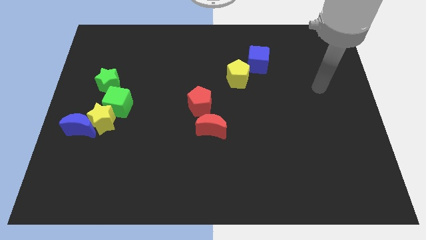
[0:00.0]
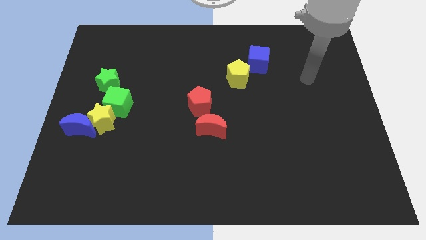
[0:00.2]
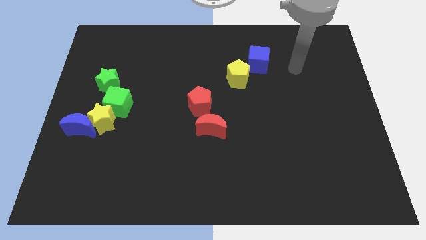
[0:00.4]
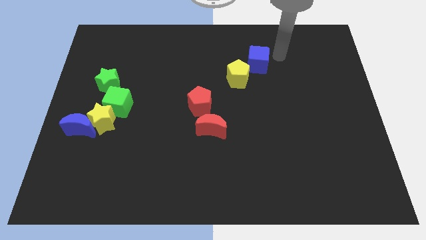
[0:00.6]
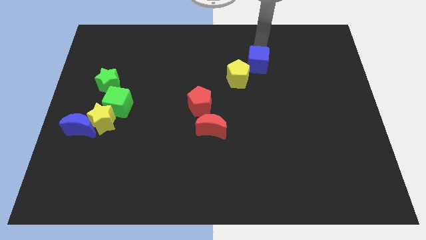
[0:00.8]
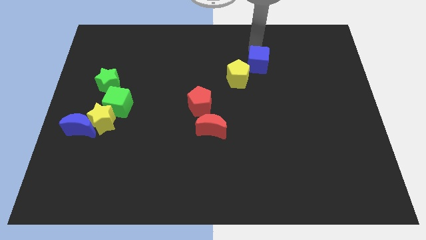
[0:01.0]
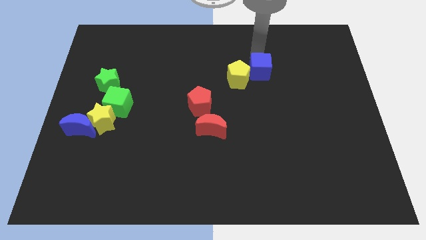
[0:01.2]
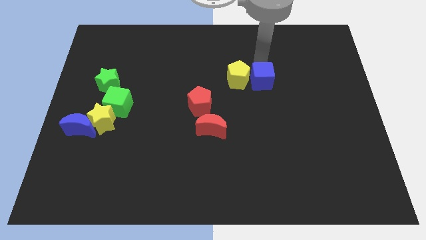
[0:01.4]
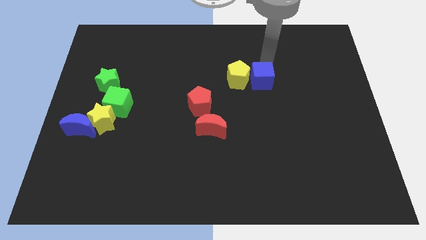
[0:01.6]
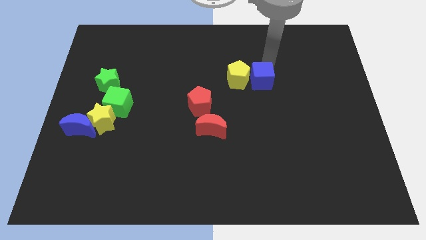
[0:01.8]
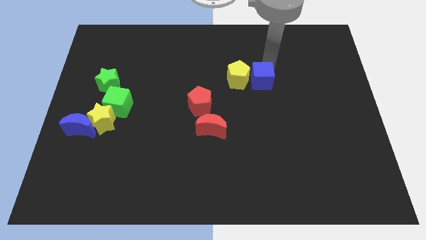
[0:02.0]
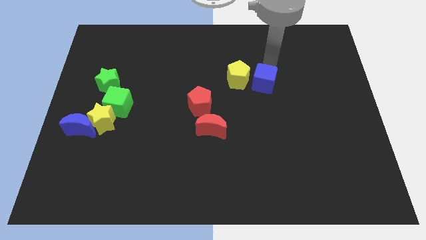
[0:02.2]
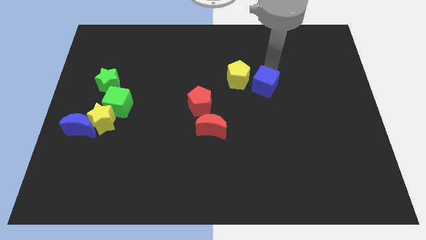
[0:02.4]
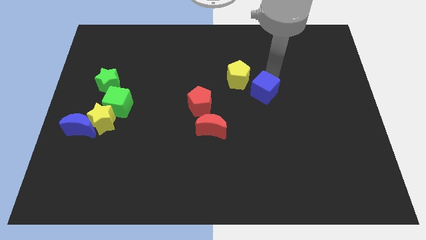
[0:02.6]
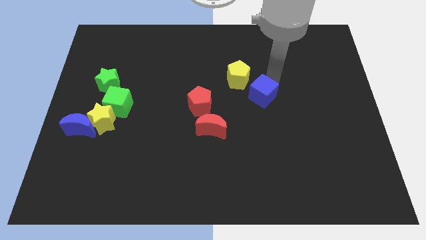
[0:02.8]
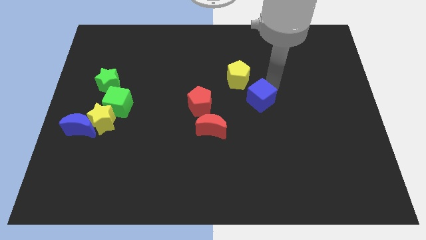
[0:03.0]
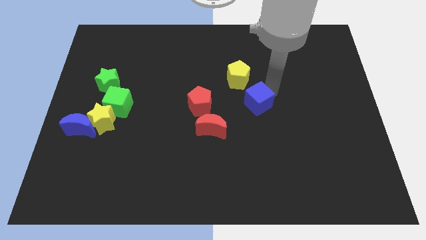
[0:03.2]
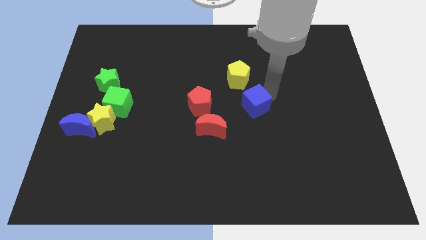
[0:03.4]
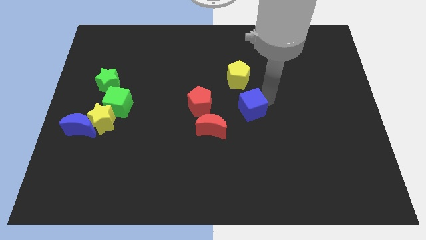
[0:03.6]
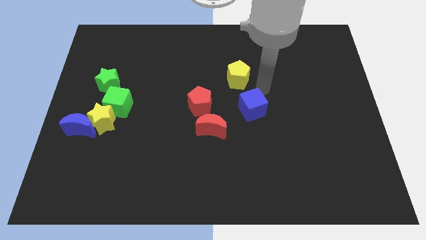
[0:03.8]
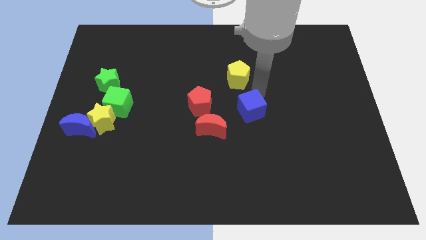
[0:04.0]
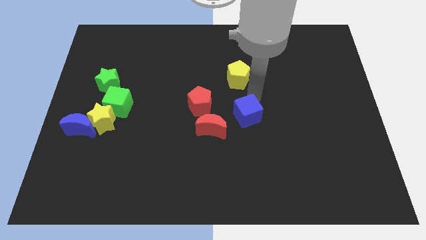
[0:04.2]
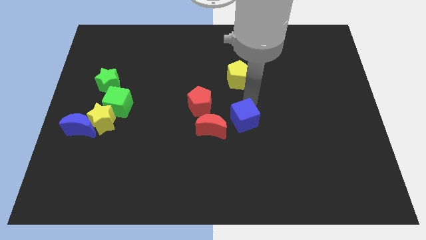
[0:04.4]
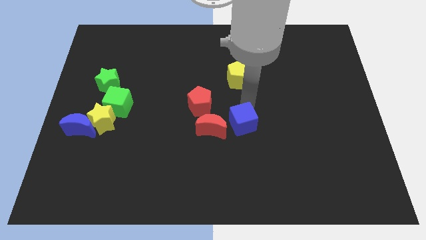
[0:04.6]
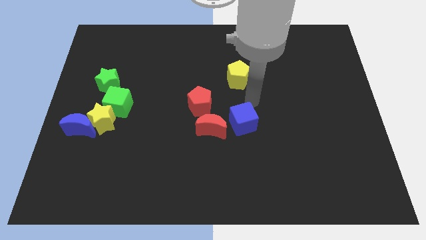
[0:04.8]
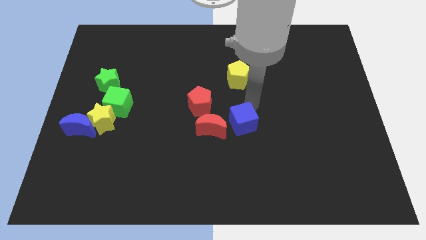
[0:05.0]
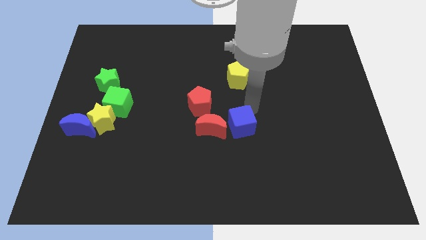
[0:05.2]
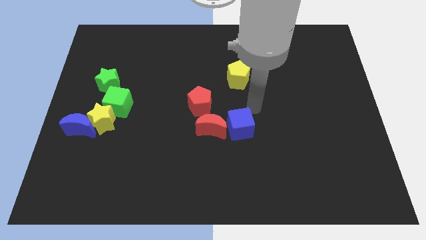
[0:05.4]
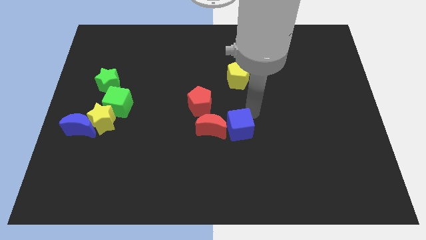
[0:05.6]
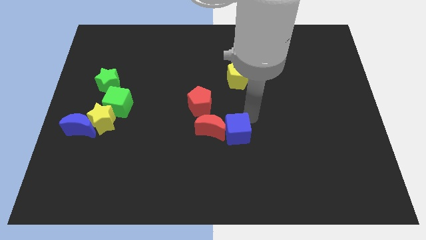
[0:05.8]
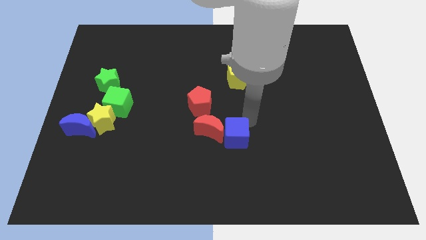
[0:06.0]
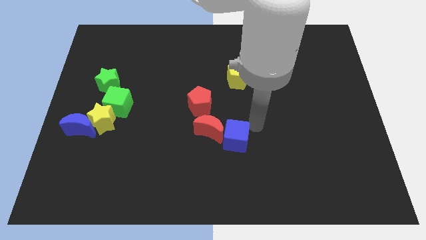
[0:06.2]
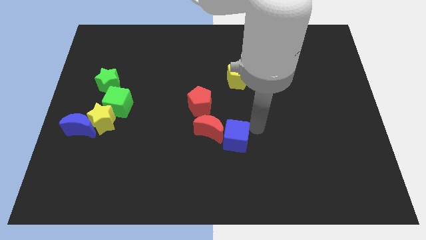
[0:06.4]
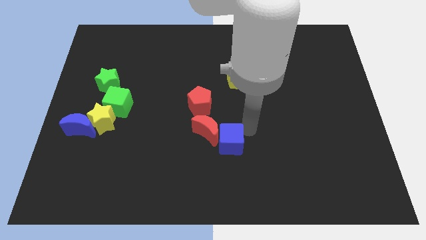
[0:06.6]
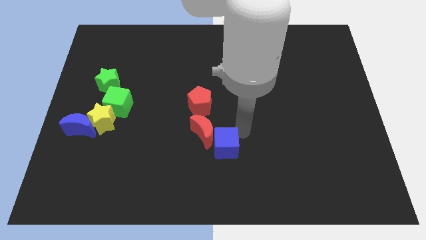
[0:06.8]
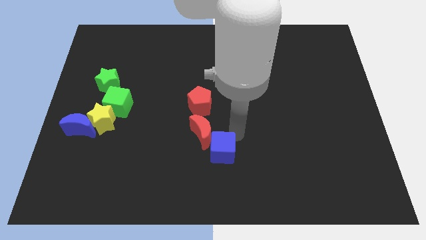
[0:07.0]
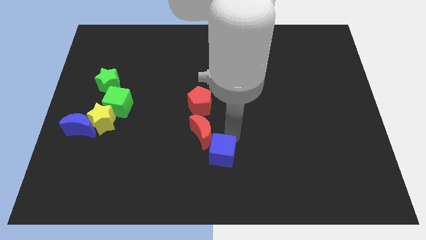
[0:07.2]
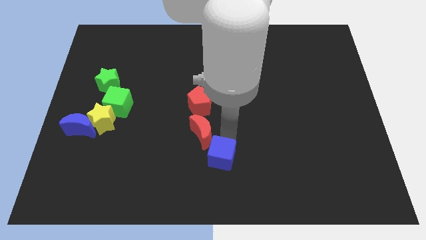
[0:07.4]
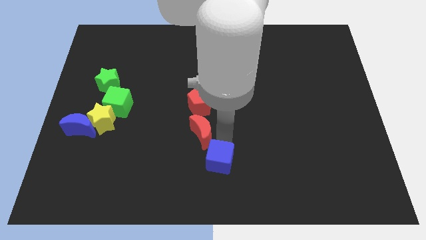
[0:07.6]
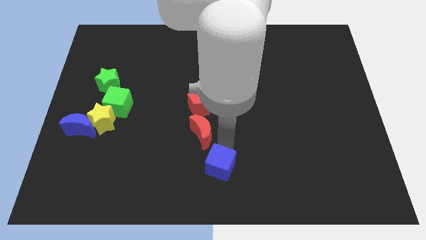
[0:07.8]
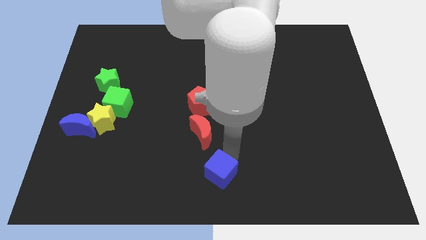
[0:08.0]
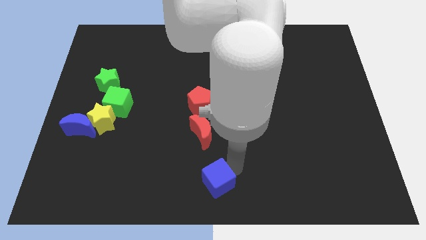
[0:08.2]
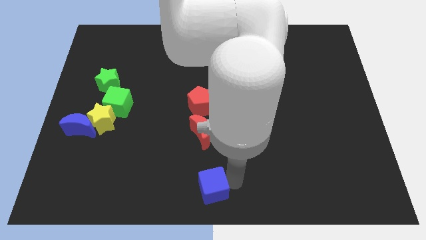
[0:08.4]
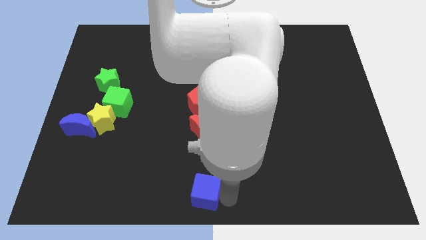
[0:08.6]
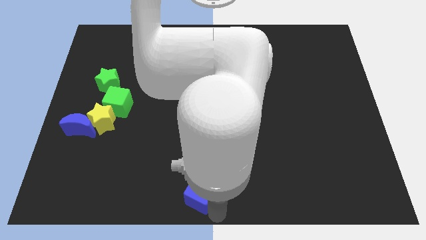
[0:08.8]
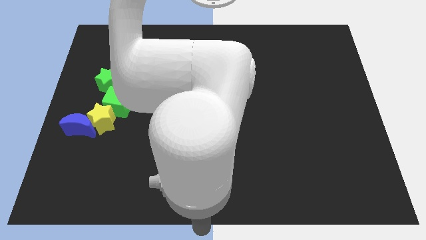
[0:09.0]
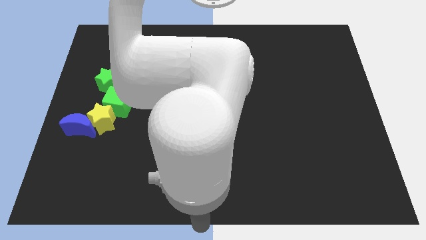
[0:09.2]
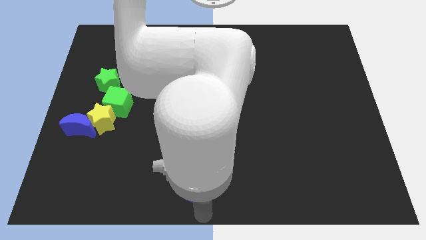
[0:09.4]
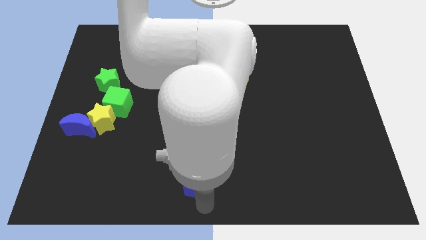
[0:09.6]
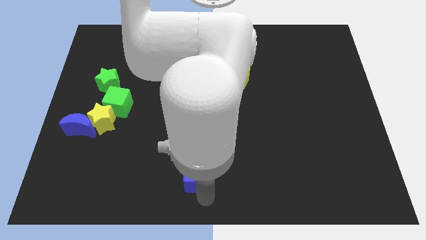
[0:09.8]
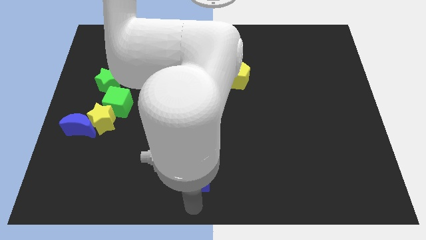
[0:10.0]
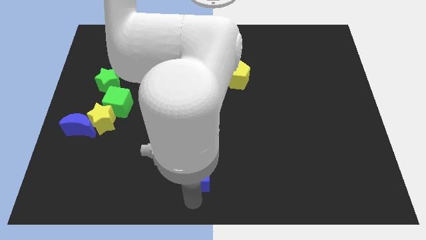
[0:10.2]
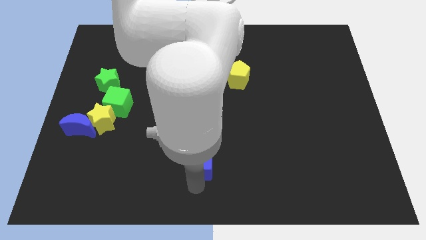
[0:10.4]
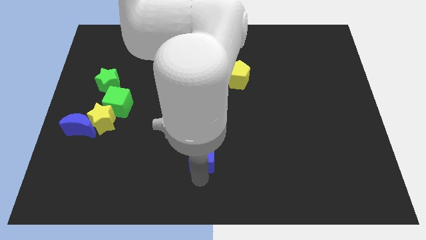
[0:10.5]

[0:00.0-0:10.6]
slide the blue cube to the bottom left side of the red moon

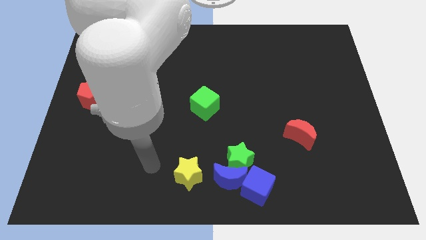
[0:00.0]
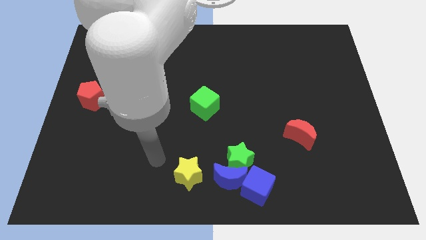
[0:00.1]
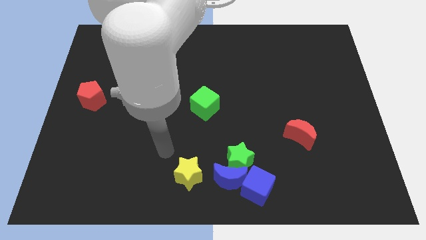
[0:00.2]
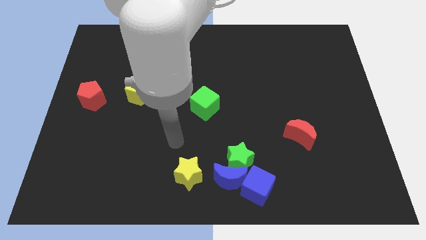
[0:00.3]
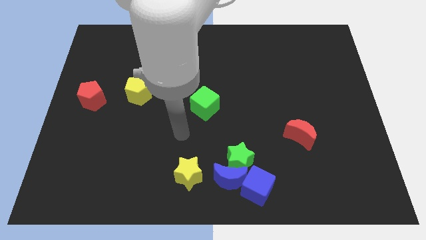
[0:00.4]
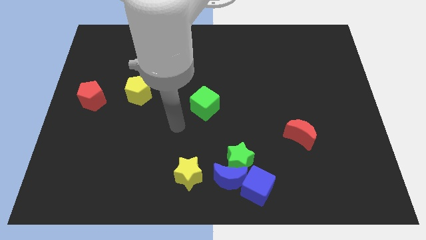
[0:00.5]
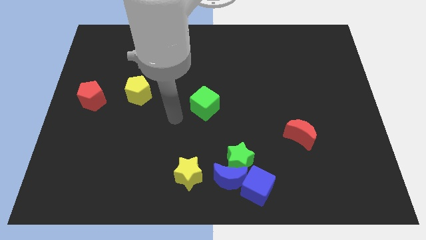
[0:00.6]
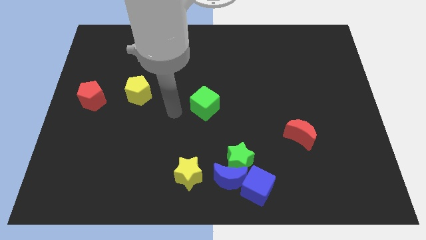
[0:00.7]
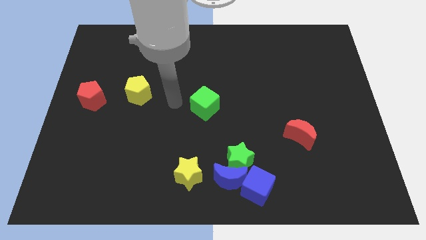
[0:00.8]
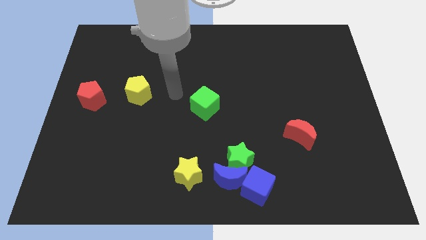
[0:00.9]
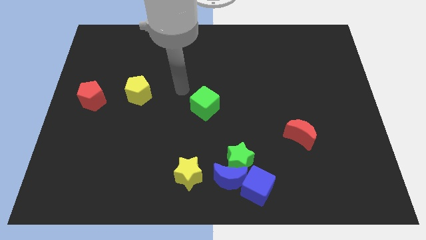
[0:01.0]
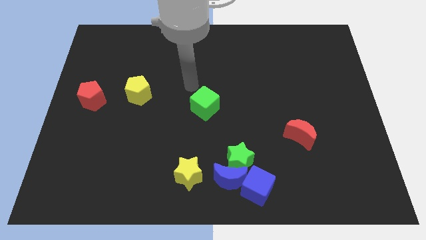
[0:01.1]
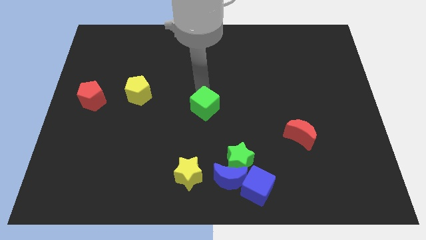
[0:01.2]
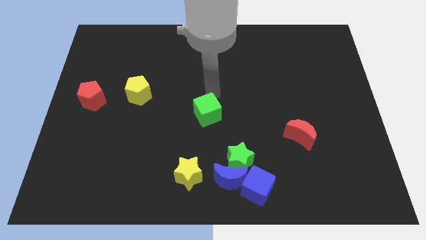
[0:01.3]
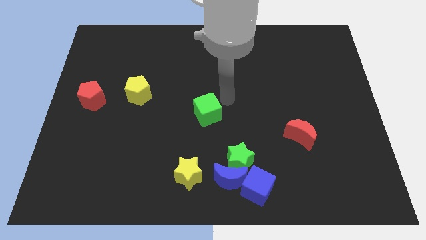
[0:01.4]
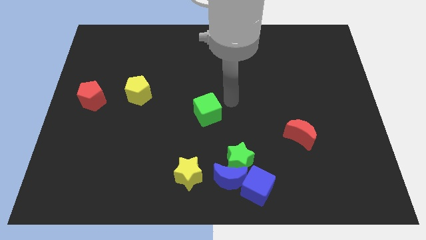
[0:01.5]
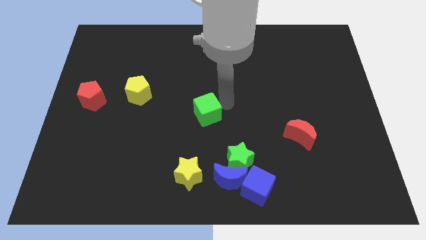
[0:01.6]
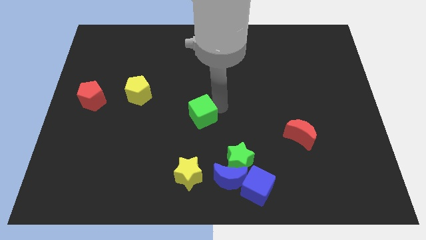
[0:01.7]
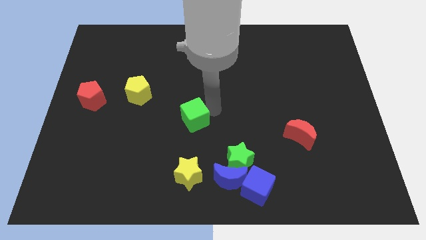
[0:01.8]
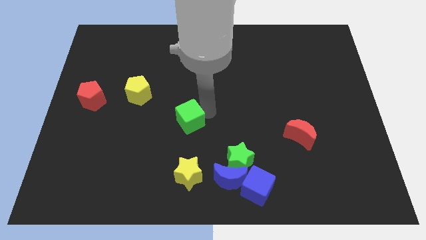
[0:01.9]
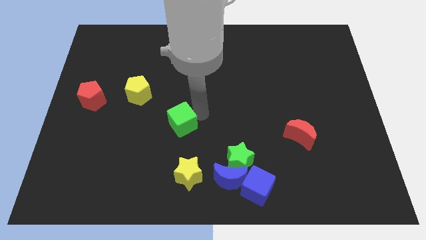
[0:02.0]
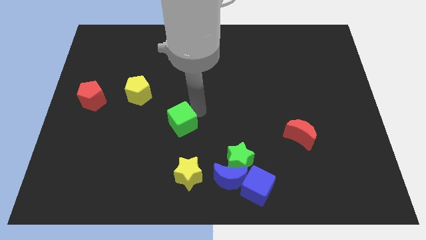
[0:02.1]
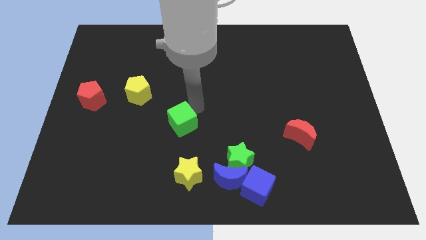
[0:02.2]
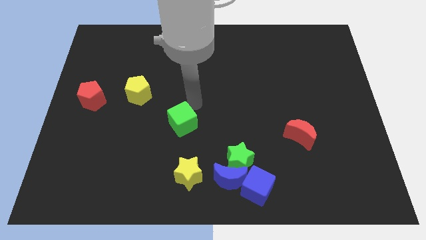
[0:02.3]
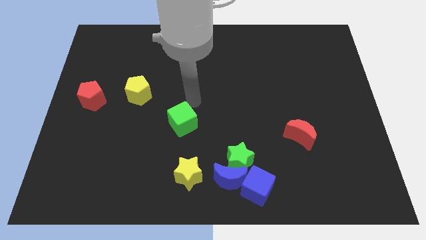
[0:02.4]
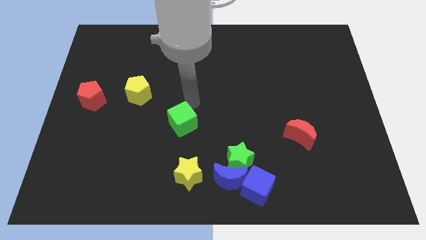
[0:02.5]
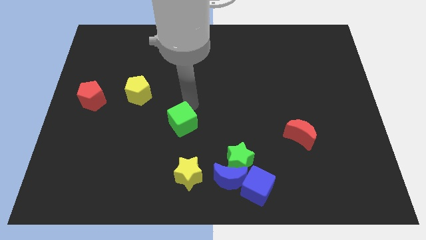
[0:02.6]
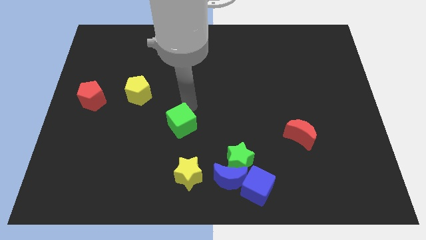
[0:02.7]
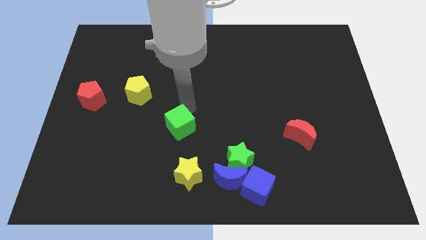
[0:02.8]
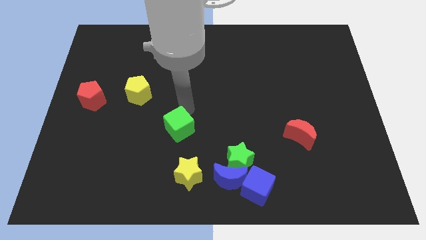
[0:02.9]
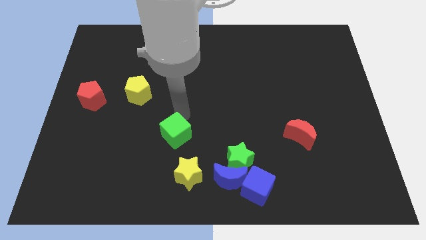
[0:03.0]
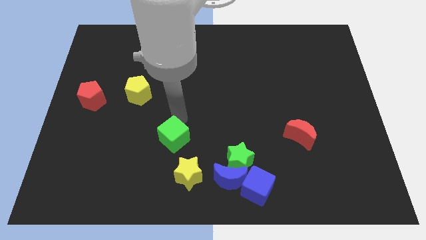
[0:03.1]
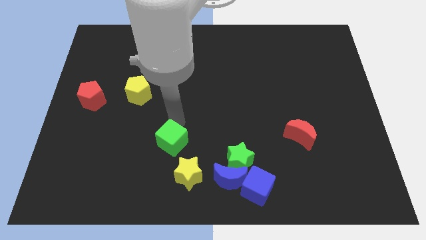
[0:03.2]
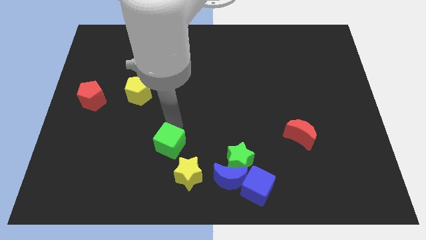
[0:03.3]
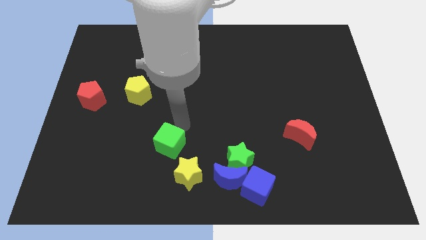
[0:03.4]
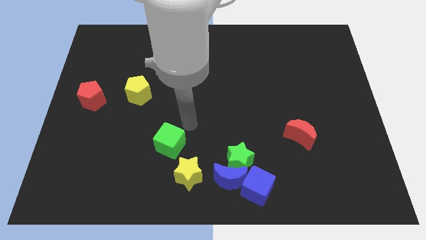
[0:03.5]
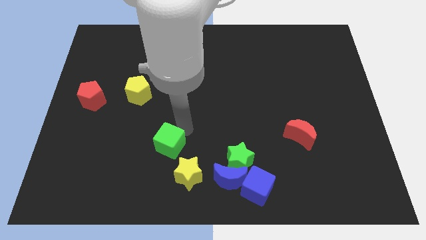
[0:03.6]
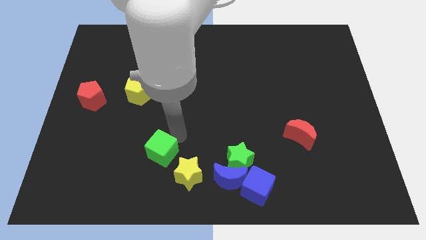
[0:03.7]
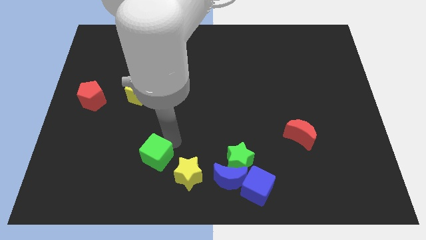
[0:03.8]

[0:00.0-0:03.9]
slide the green cube left of the yellow star
